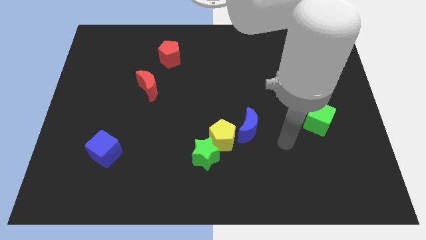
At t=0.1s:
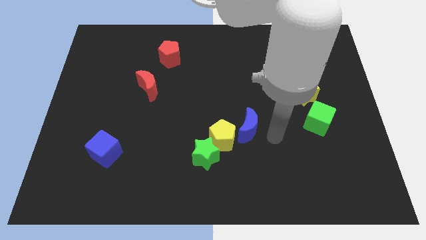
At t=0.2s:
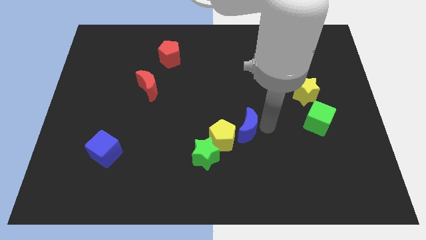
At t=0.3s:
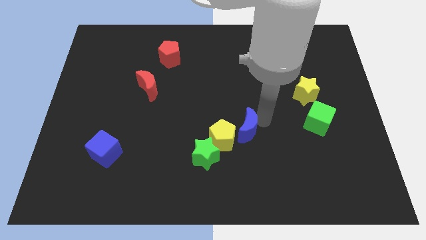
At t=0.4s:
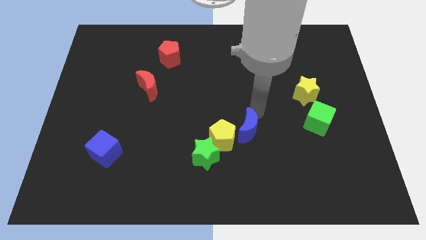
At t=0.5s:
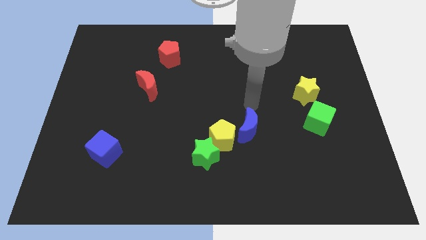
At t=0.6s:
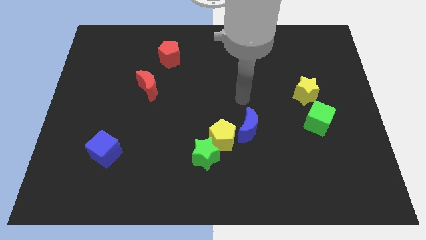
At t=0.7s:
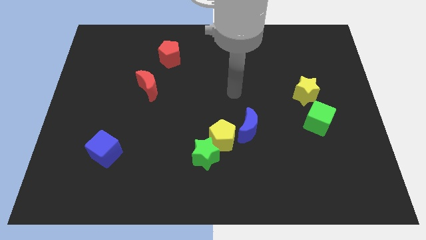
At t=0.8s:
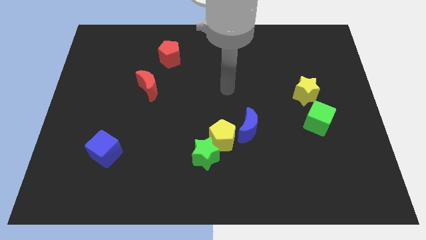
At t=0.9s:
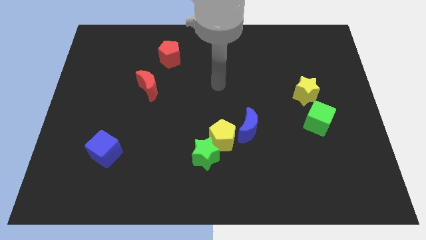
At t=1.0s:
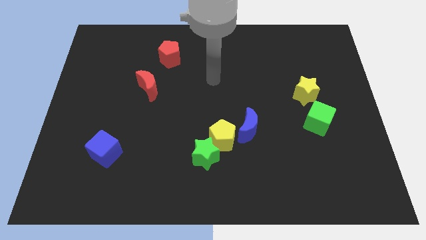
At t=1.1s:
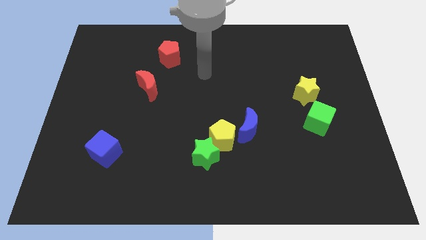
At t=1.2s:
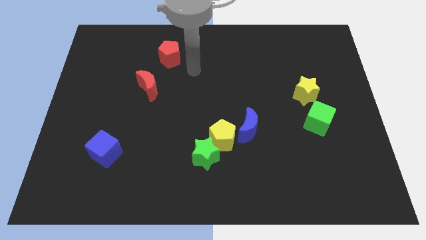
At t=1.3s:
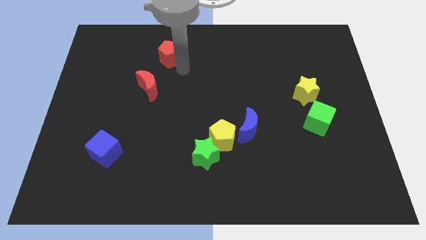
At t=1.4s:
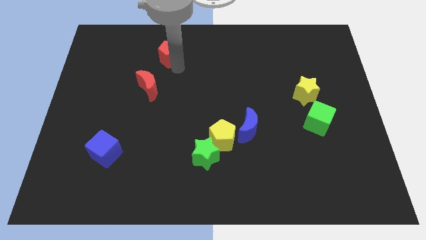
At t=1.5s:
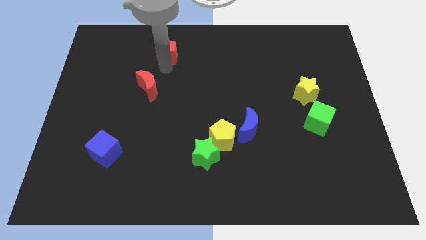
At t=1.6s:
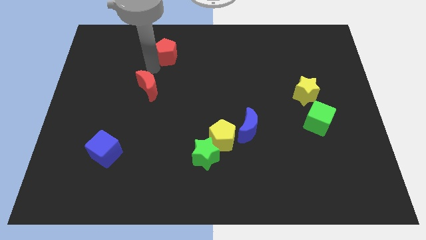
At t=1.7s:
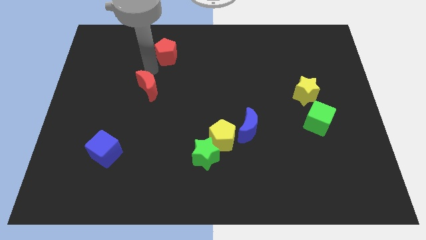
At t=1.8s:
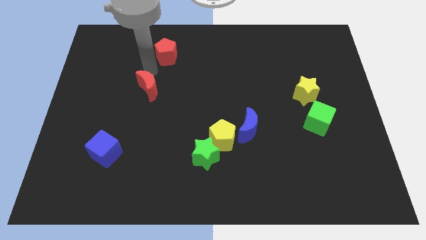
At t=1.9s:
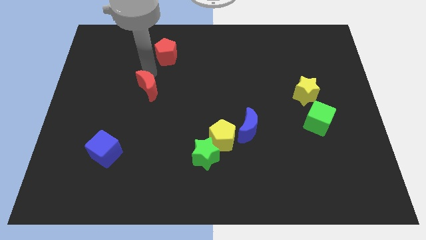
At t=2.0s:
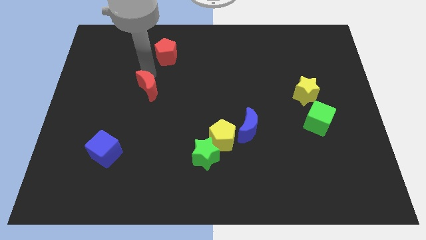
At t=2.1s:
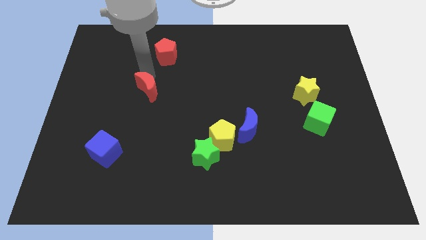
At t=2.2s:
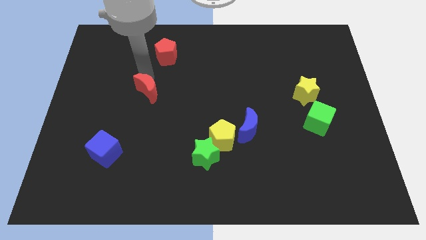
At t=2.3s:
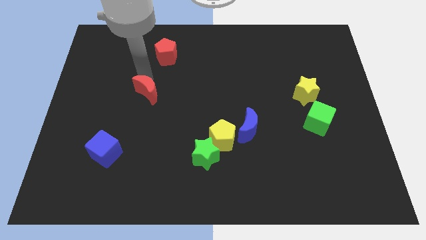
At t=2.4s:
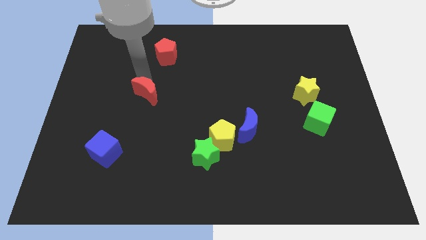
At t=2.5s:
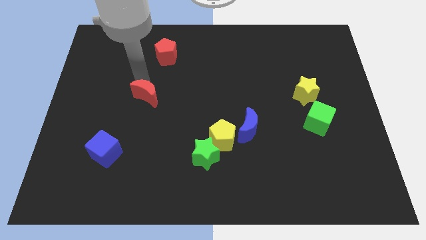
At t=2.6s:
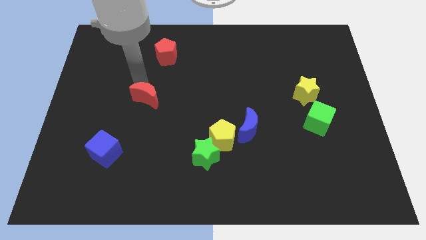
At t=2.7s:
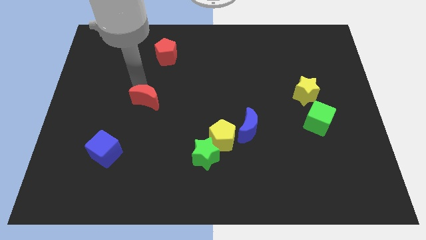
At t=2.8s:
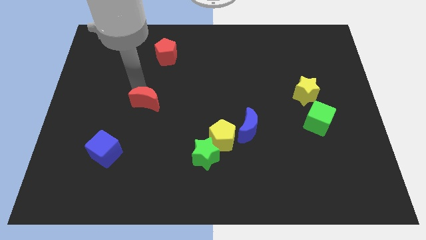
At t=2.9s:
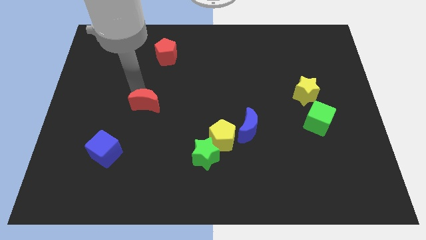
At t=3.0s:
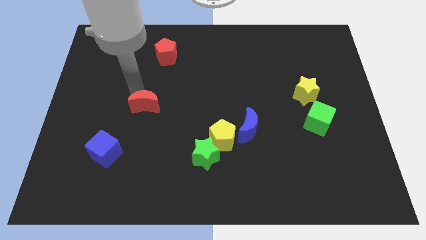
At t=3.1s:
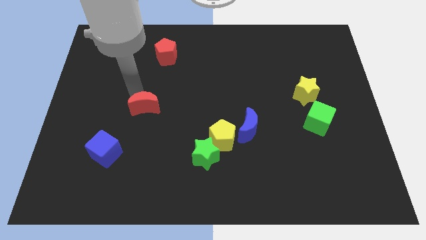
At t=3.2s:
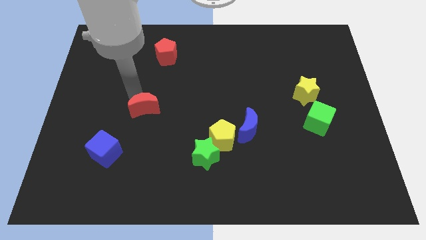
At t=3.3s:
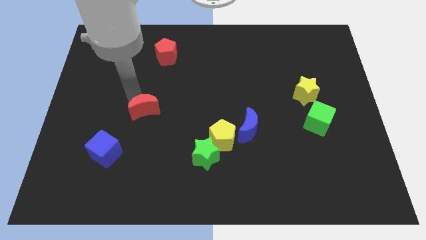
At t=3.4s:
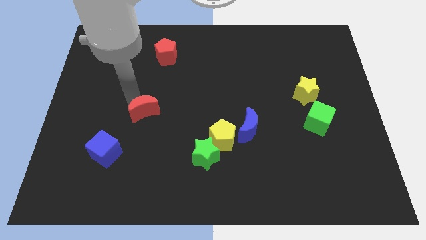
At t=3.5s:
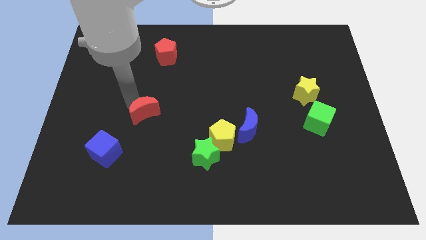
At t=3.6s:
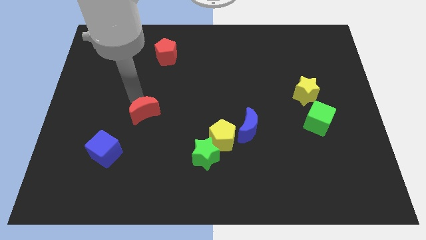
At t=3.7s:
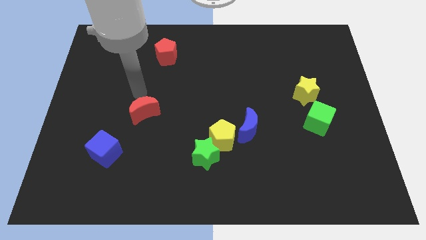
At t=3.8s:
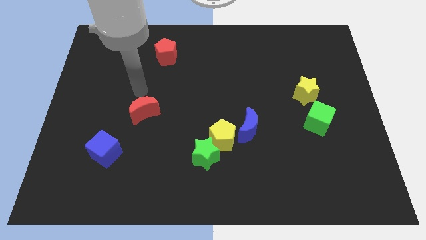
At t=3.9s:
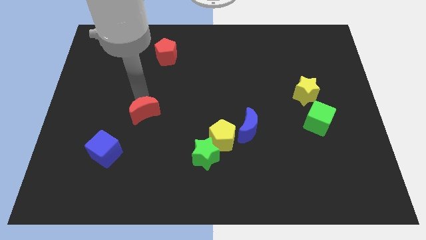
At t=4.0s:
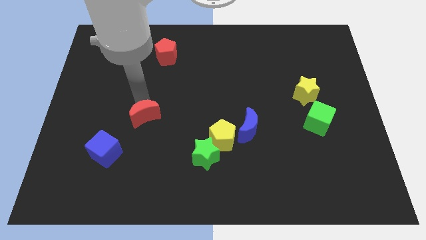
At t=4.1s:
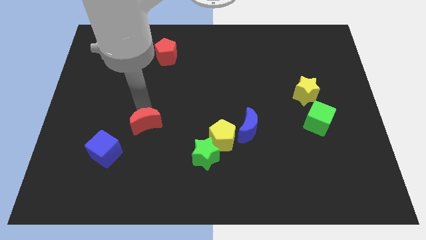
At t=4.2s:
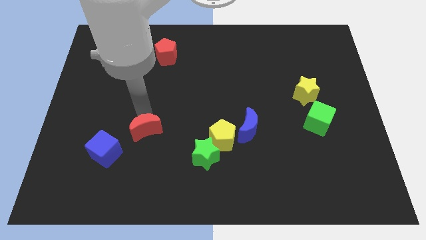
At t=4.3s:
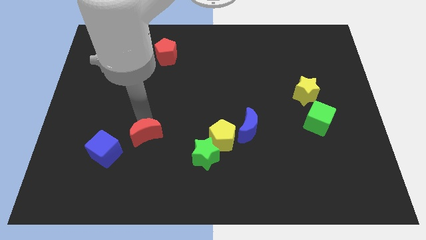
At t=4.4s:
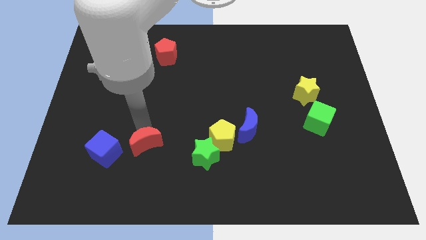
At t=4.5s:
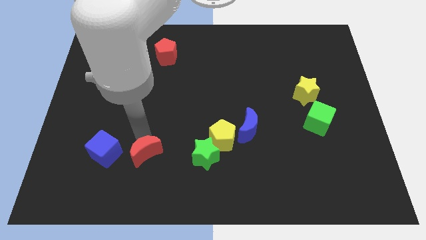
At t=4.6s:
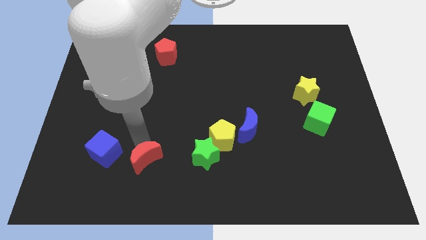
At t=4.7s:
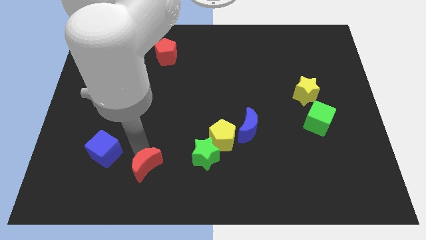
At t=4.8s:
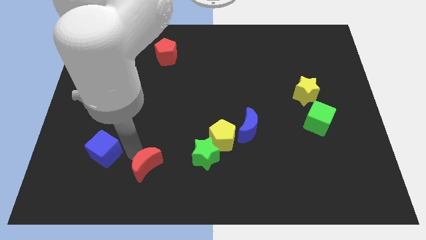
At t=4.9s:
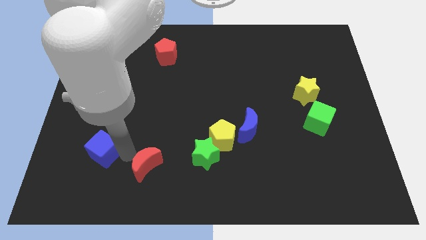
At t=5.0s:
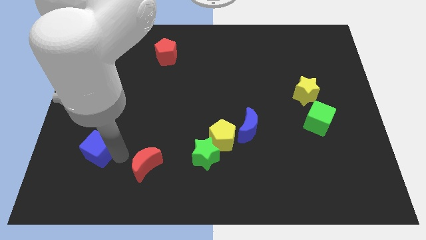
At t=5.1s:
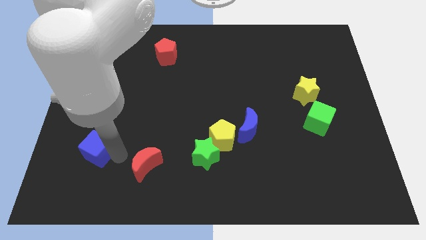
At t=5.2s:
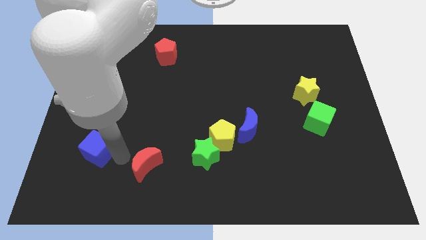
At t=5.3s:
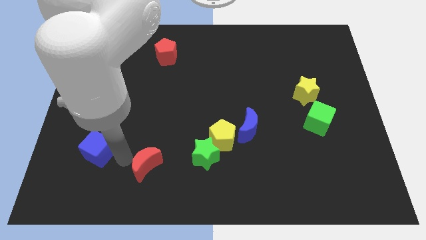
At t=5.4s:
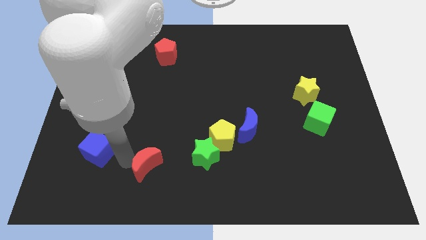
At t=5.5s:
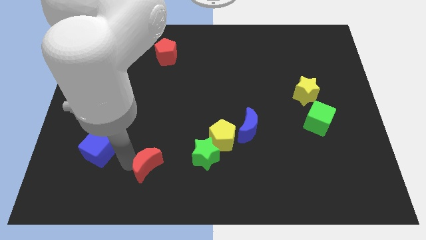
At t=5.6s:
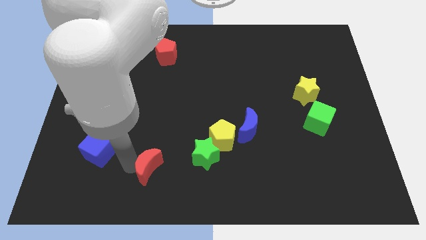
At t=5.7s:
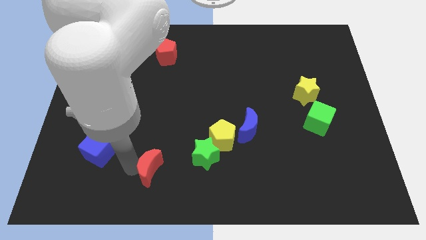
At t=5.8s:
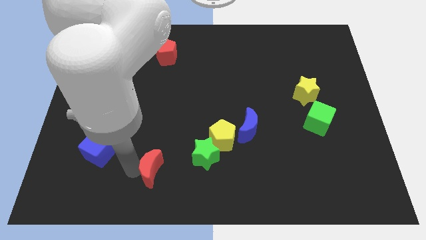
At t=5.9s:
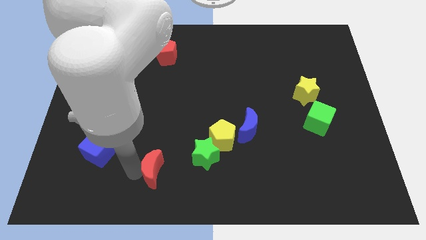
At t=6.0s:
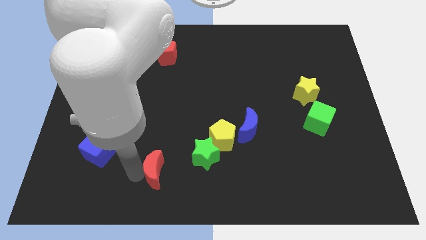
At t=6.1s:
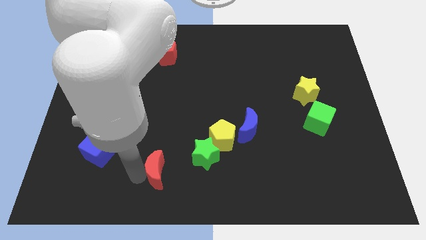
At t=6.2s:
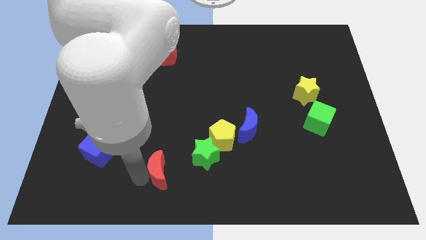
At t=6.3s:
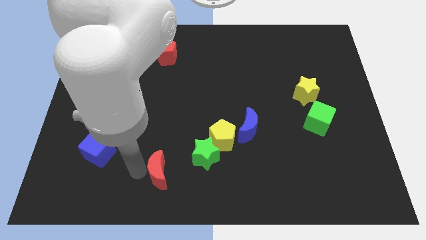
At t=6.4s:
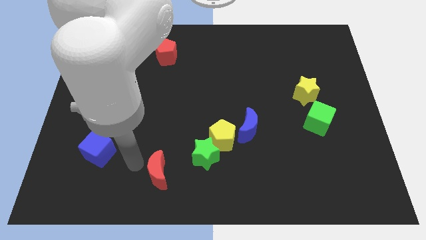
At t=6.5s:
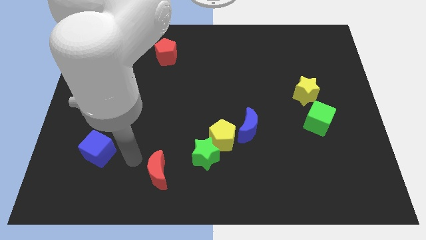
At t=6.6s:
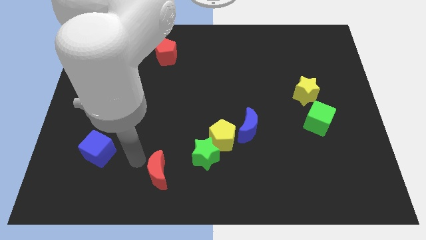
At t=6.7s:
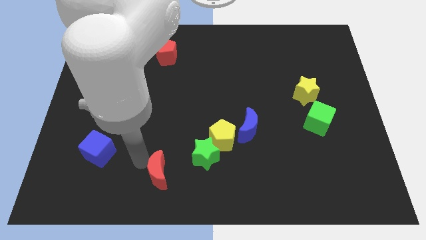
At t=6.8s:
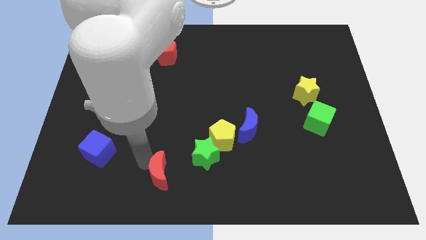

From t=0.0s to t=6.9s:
slide the red moon to the bottom
